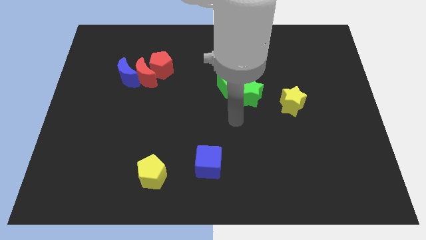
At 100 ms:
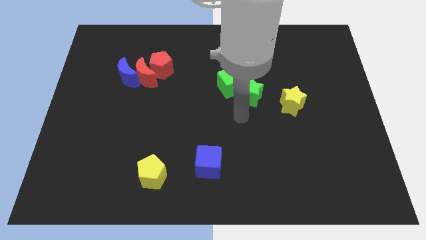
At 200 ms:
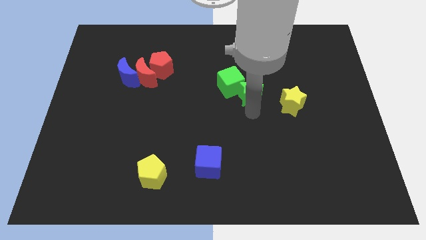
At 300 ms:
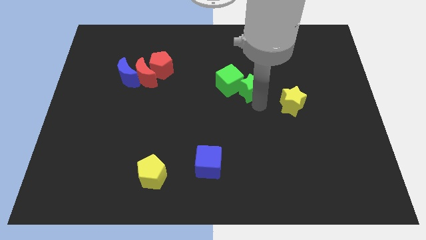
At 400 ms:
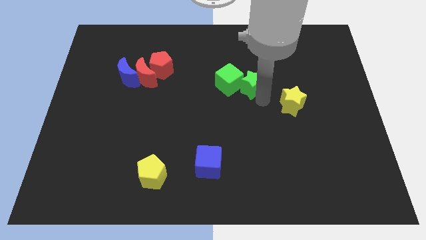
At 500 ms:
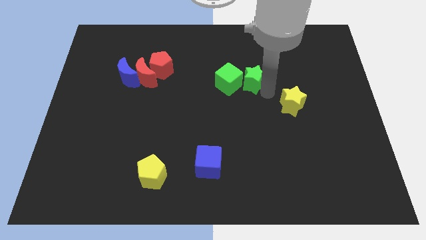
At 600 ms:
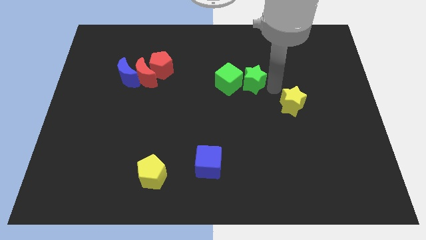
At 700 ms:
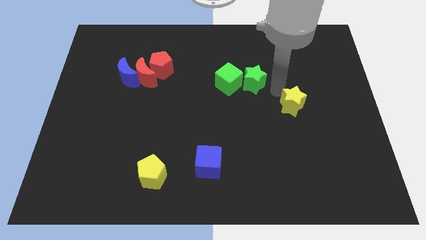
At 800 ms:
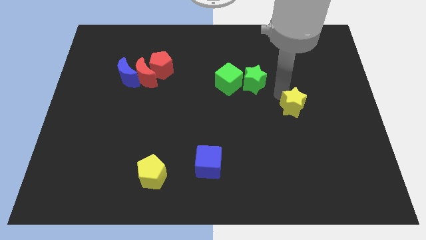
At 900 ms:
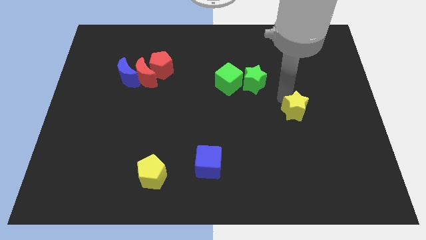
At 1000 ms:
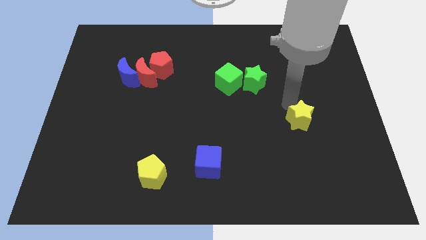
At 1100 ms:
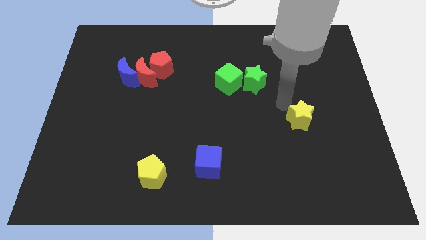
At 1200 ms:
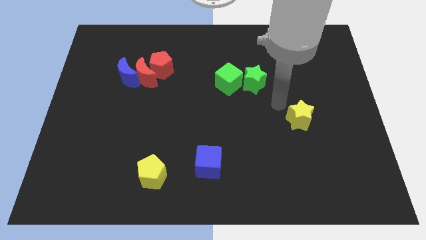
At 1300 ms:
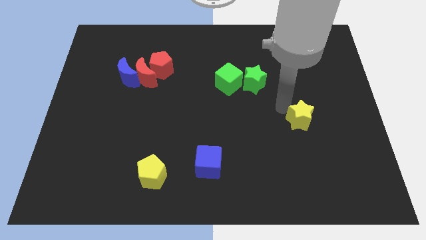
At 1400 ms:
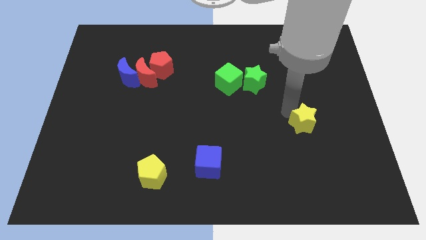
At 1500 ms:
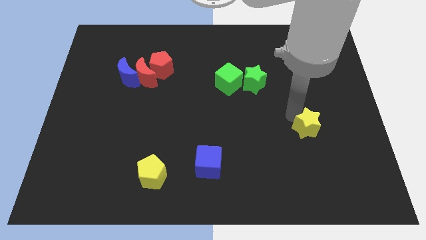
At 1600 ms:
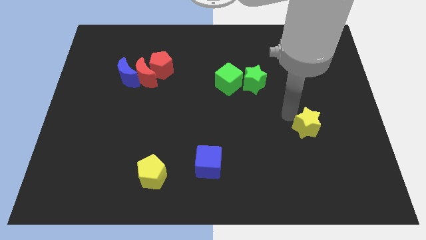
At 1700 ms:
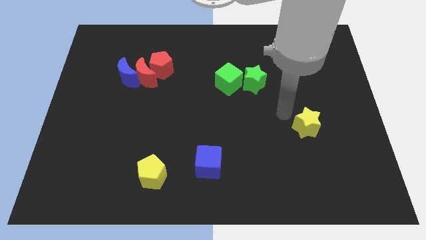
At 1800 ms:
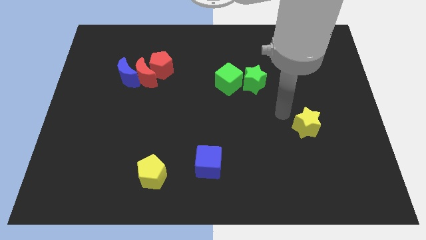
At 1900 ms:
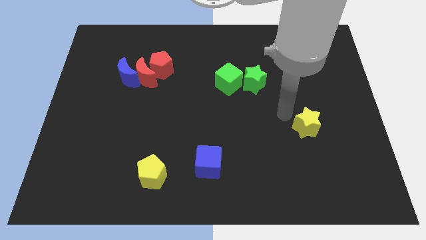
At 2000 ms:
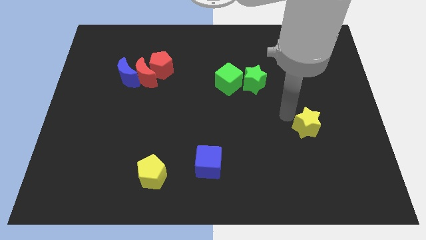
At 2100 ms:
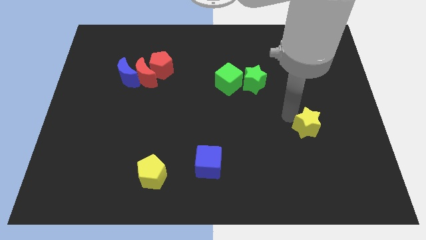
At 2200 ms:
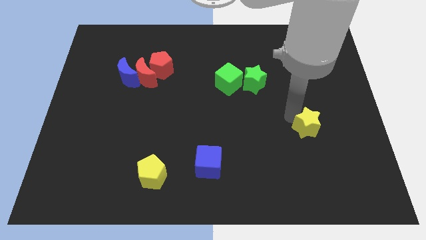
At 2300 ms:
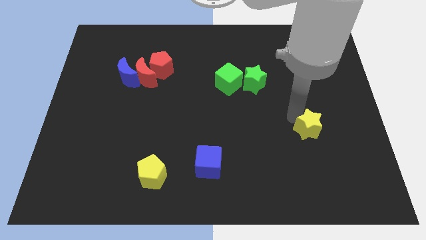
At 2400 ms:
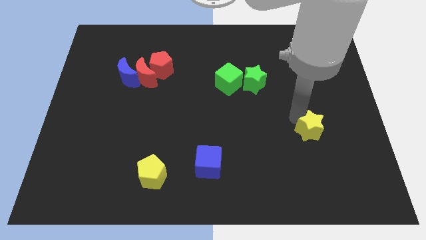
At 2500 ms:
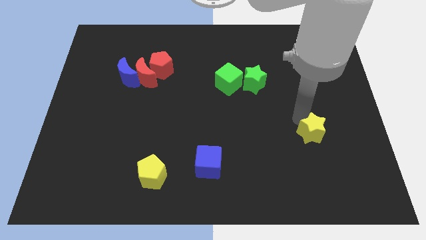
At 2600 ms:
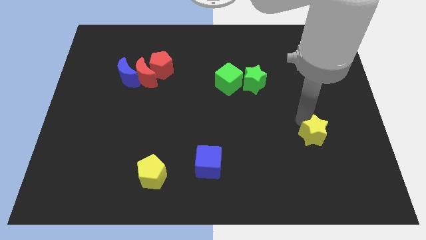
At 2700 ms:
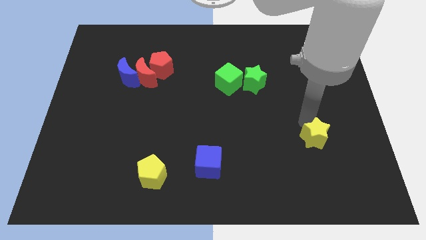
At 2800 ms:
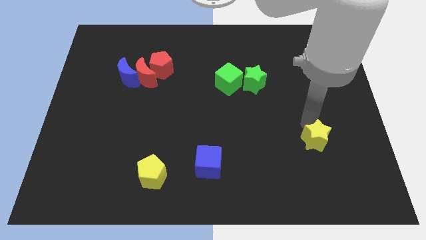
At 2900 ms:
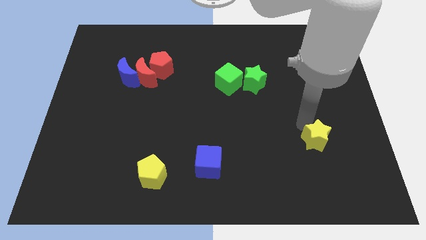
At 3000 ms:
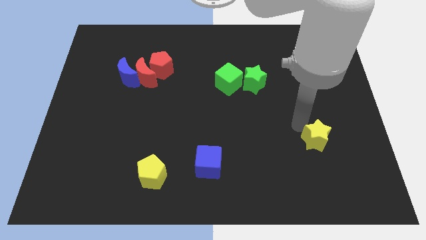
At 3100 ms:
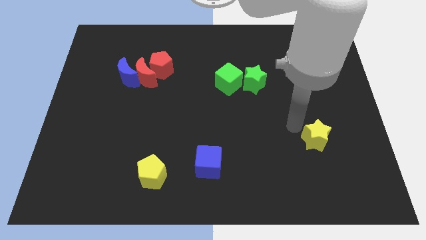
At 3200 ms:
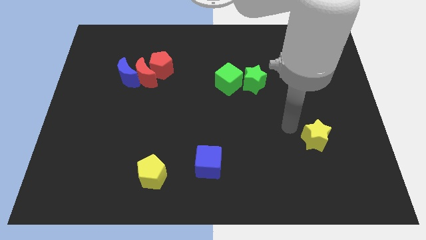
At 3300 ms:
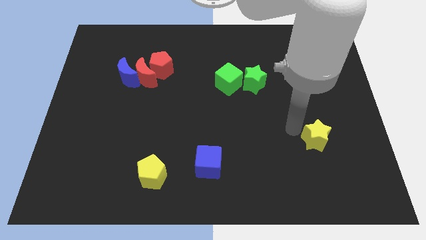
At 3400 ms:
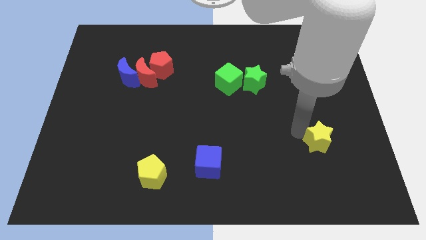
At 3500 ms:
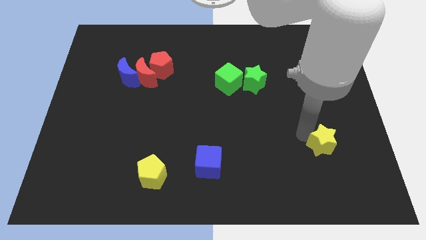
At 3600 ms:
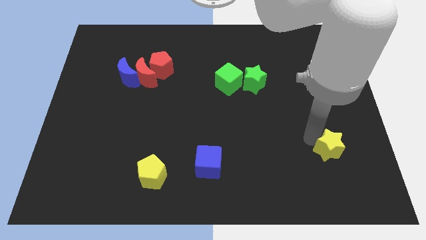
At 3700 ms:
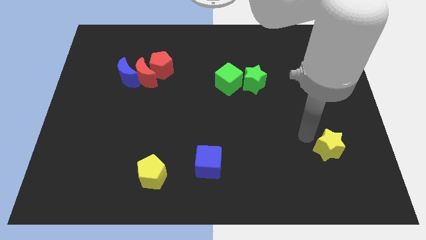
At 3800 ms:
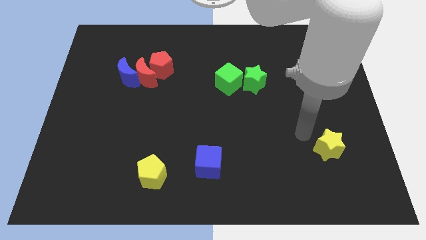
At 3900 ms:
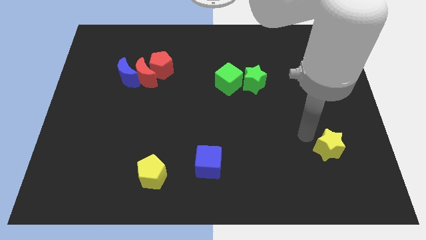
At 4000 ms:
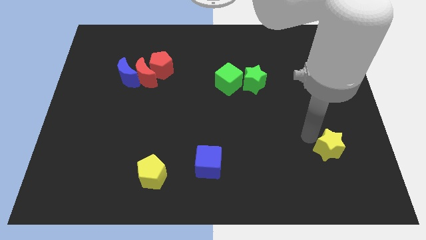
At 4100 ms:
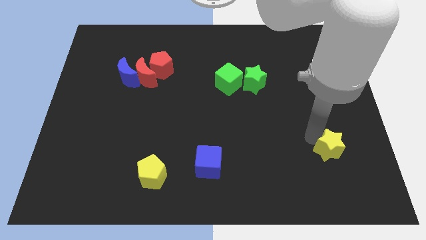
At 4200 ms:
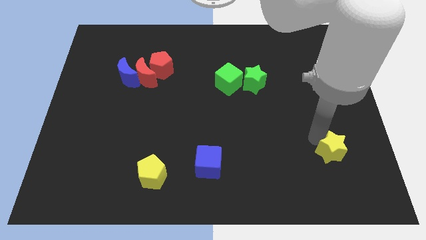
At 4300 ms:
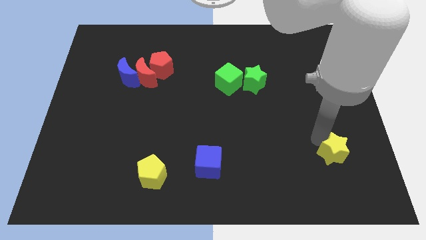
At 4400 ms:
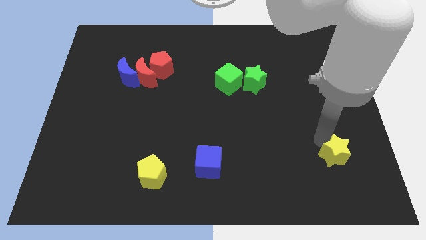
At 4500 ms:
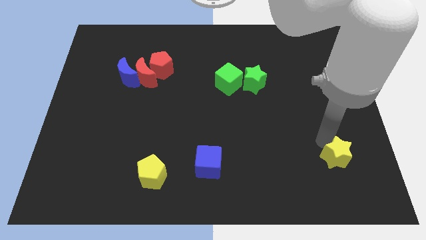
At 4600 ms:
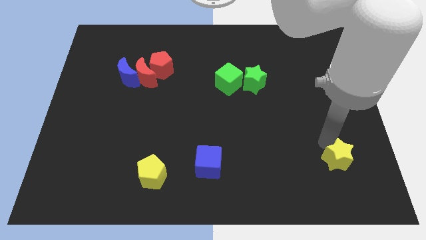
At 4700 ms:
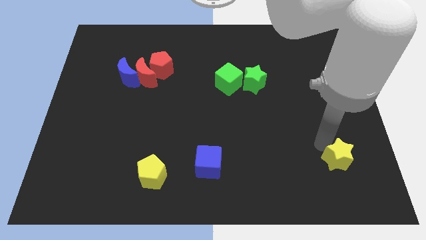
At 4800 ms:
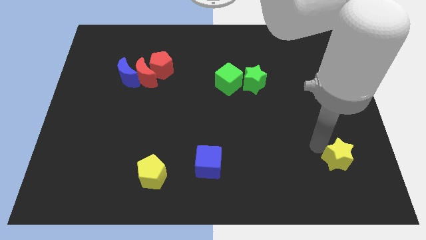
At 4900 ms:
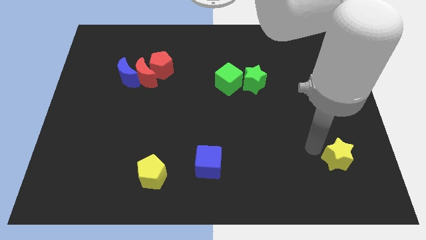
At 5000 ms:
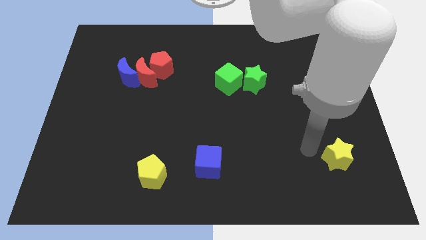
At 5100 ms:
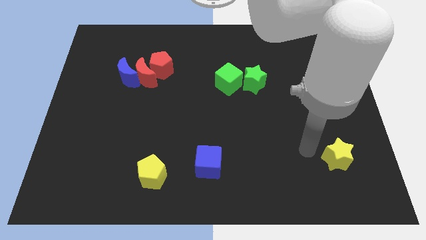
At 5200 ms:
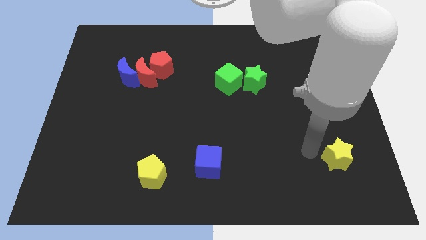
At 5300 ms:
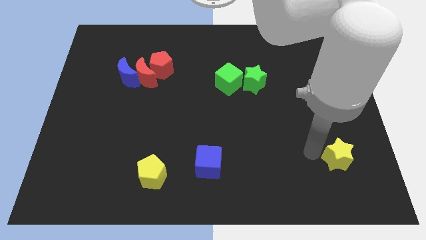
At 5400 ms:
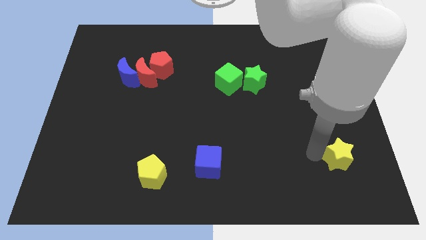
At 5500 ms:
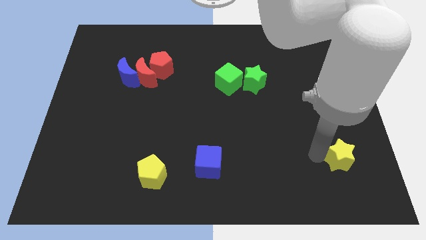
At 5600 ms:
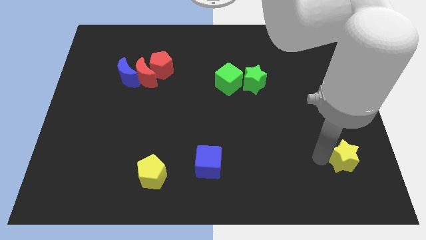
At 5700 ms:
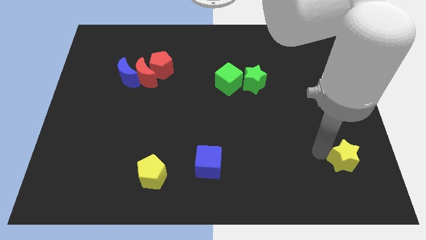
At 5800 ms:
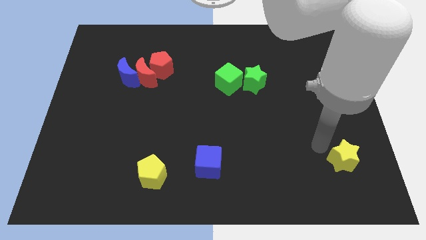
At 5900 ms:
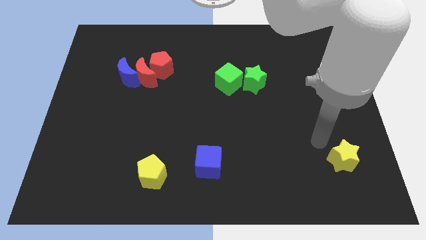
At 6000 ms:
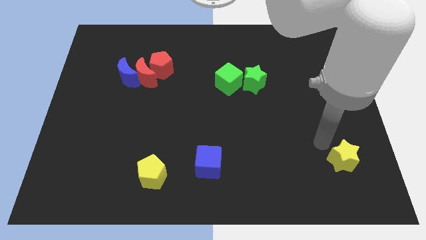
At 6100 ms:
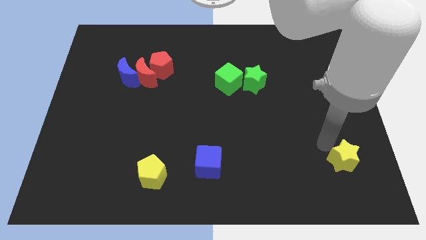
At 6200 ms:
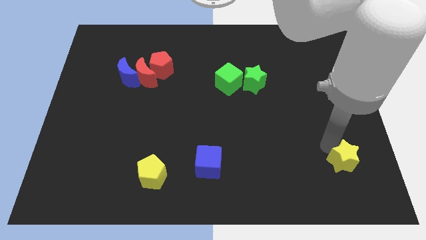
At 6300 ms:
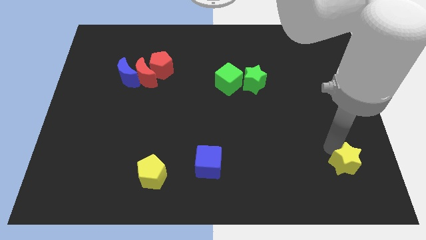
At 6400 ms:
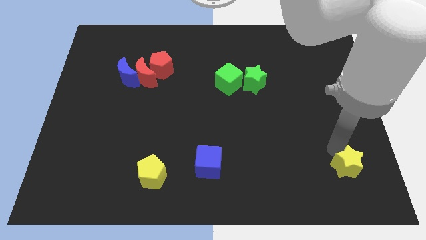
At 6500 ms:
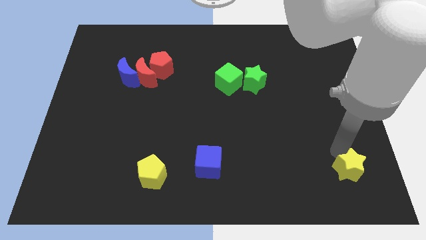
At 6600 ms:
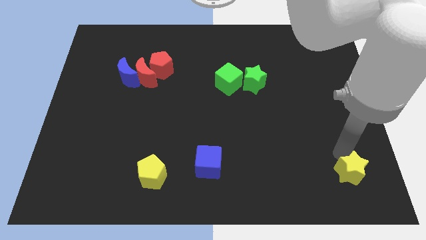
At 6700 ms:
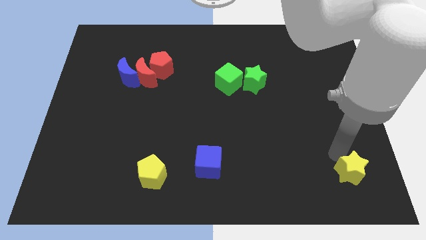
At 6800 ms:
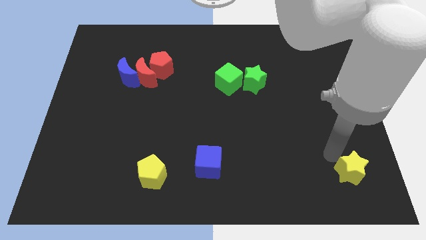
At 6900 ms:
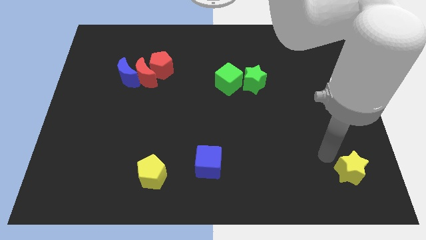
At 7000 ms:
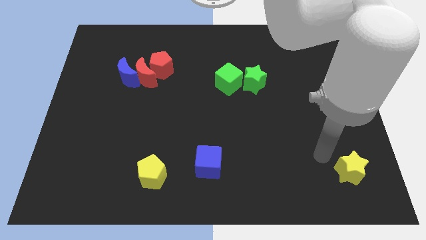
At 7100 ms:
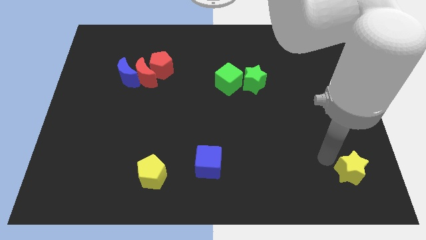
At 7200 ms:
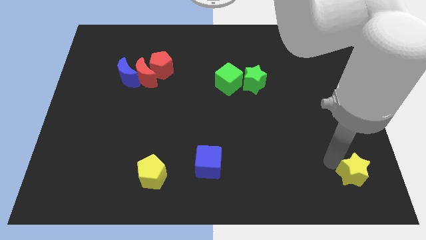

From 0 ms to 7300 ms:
push the yellow star to the bottom right corner
